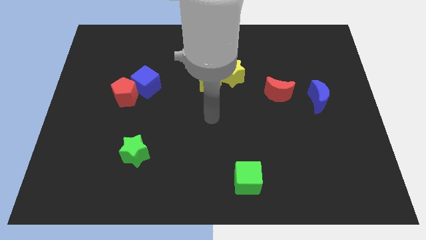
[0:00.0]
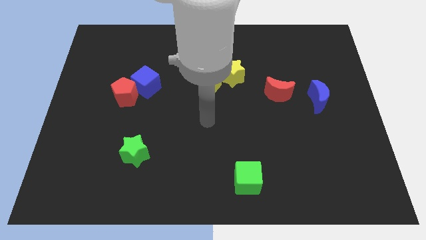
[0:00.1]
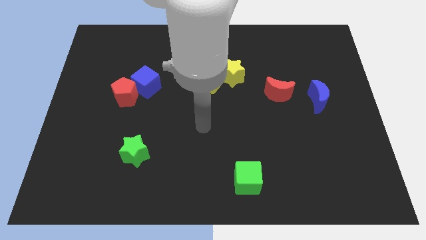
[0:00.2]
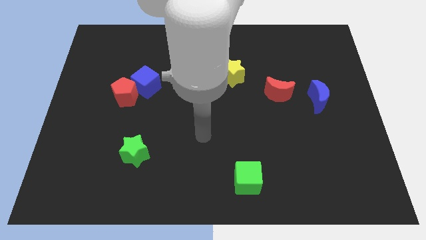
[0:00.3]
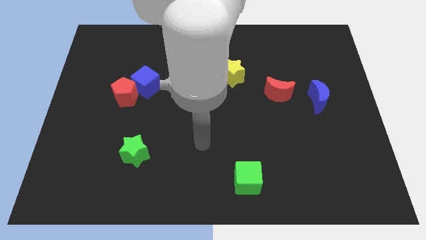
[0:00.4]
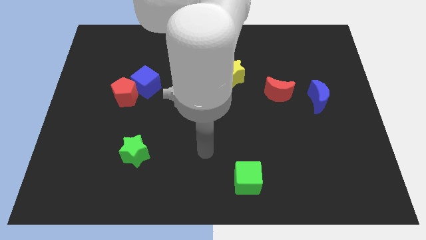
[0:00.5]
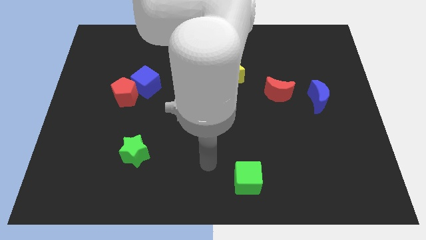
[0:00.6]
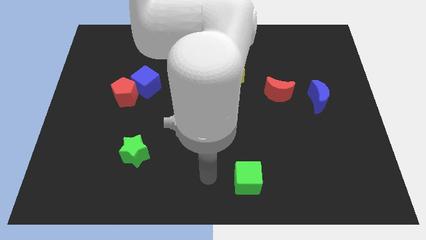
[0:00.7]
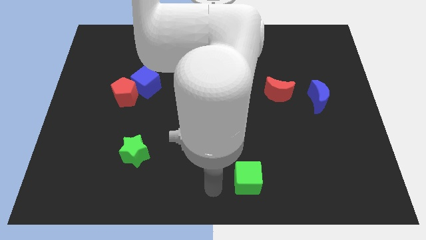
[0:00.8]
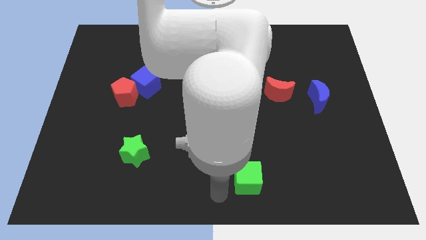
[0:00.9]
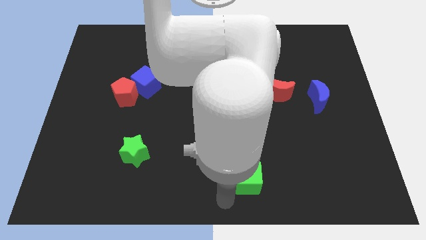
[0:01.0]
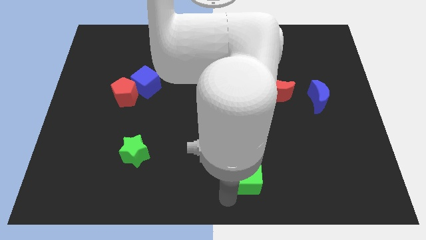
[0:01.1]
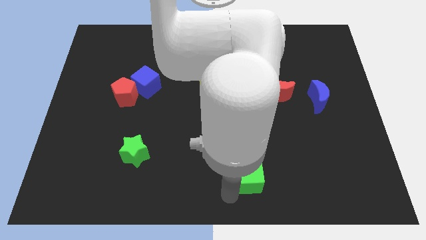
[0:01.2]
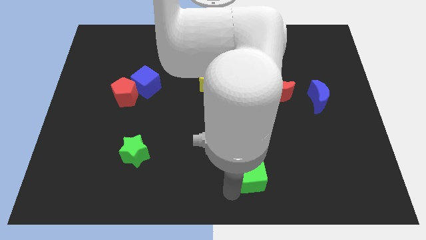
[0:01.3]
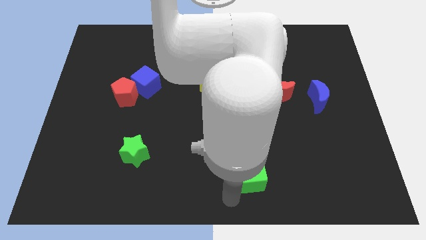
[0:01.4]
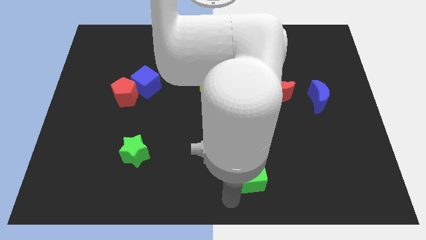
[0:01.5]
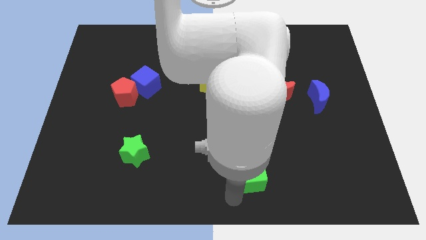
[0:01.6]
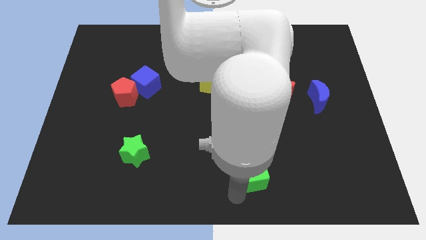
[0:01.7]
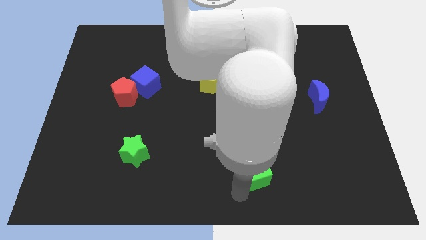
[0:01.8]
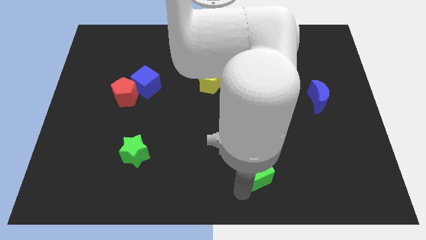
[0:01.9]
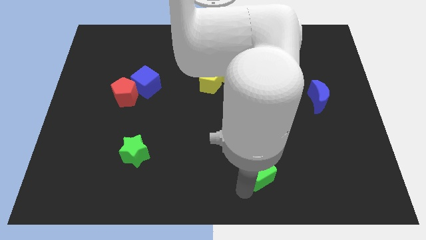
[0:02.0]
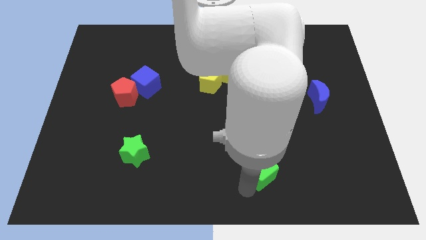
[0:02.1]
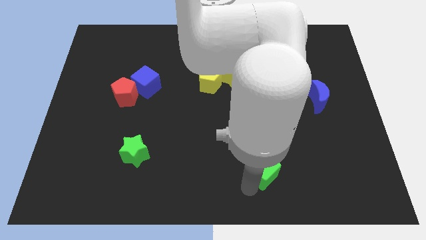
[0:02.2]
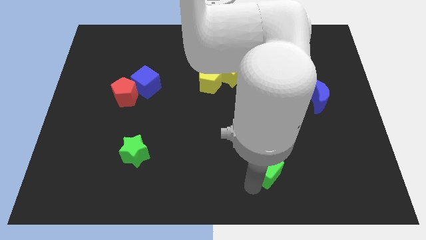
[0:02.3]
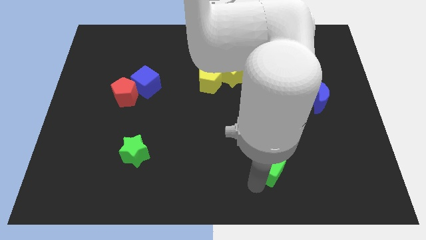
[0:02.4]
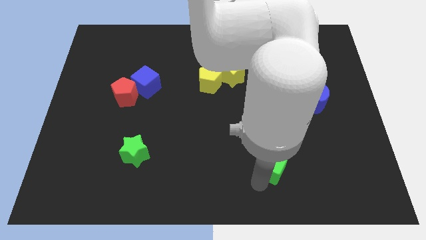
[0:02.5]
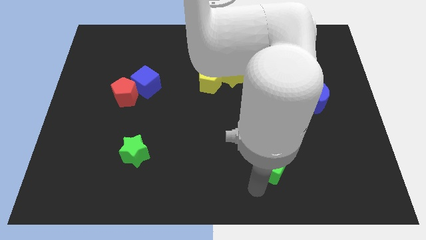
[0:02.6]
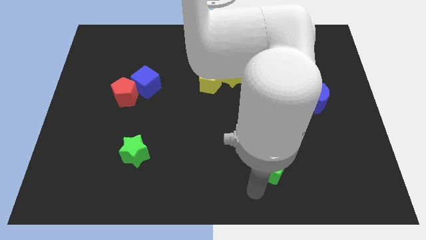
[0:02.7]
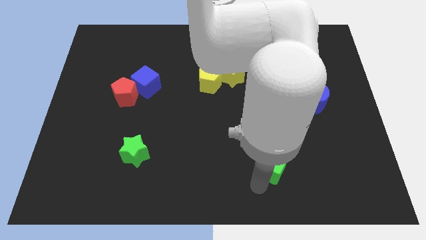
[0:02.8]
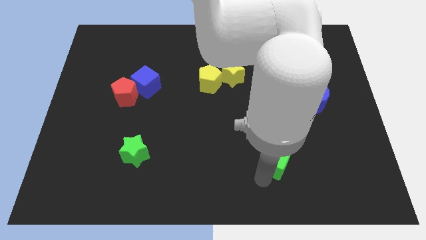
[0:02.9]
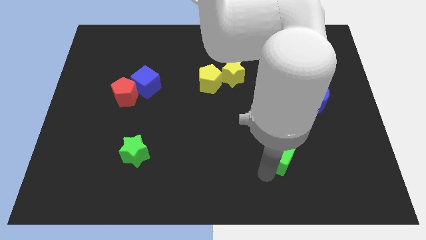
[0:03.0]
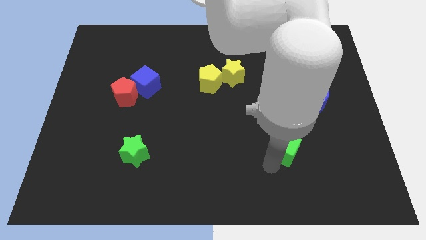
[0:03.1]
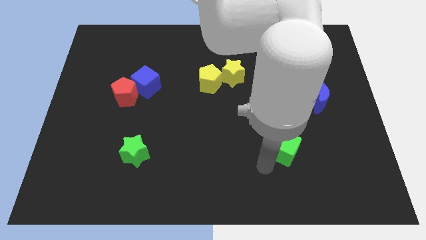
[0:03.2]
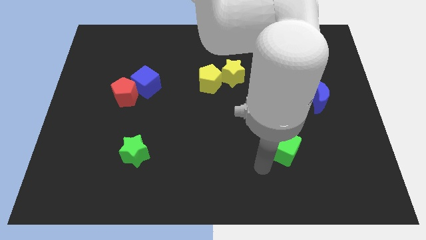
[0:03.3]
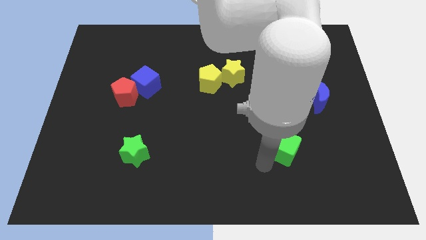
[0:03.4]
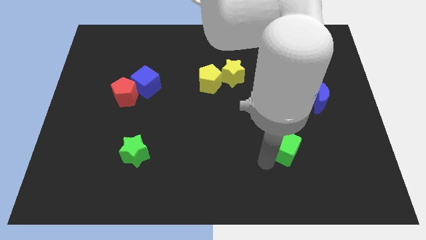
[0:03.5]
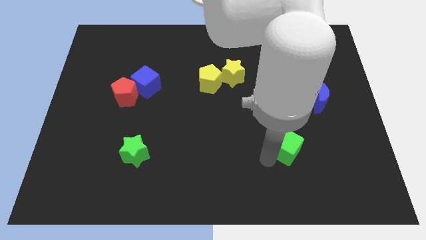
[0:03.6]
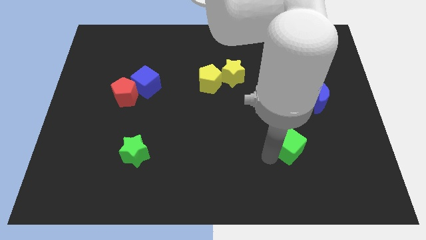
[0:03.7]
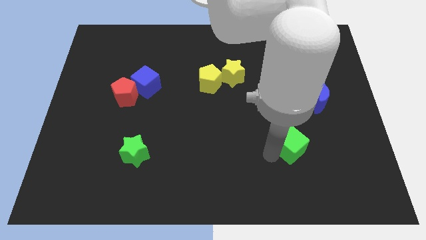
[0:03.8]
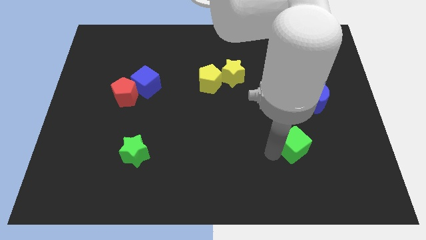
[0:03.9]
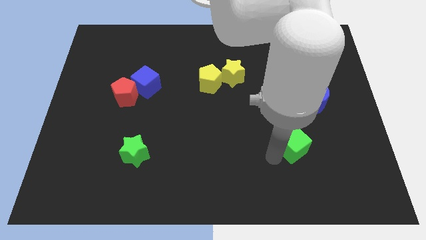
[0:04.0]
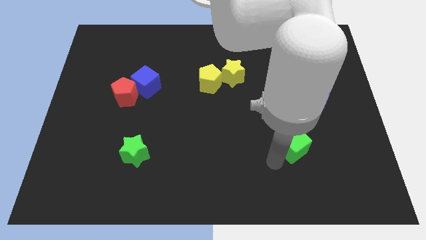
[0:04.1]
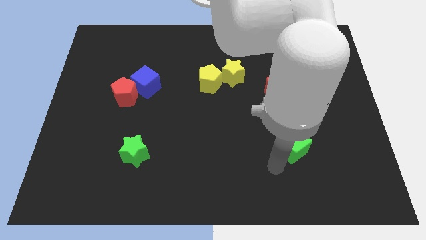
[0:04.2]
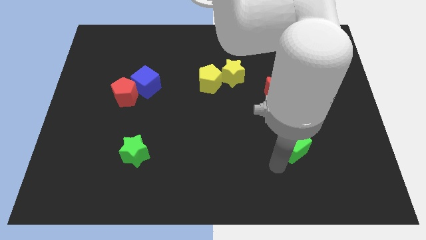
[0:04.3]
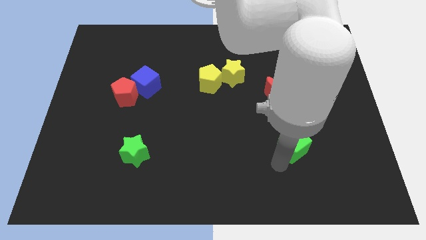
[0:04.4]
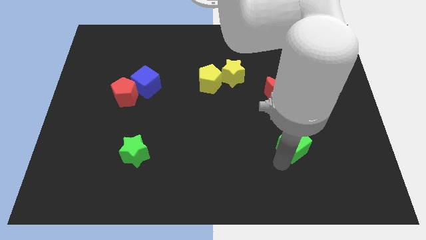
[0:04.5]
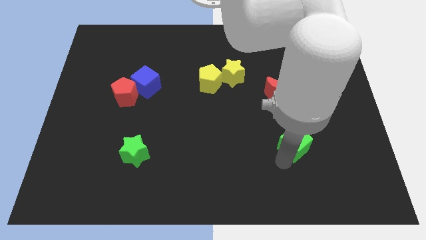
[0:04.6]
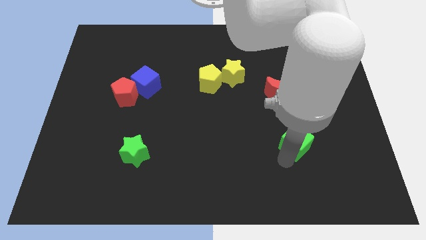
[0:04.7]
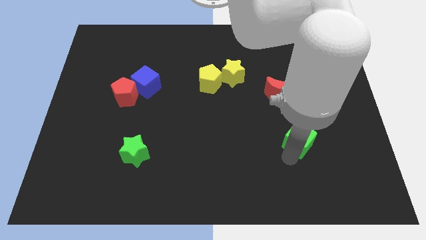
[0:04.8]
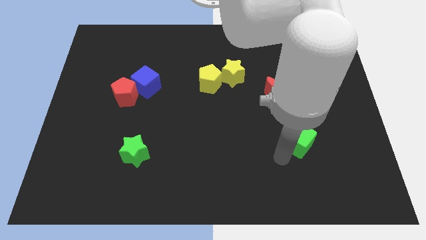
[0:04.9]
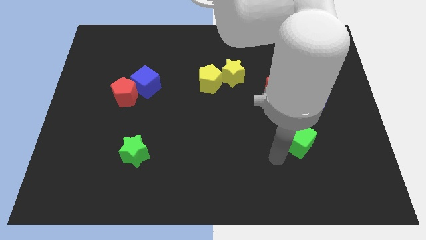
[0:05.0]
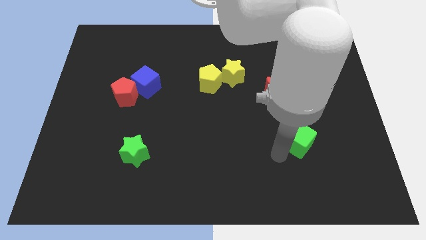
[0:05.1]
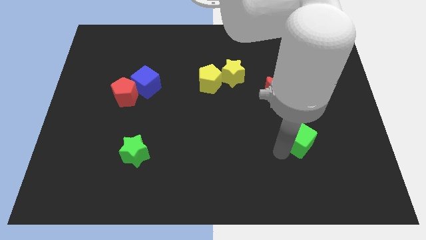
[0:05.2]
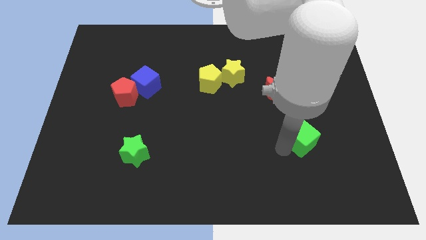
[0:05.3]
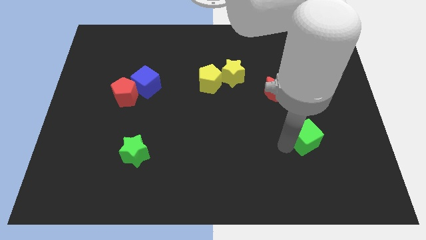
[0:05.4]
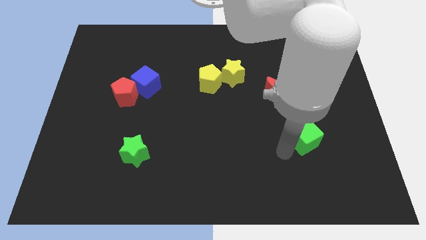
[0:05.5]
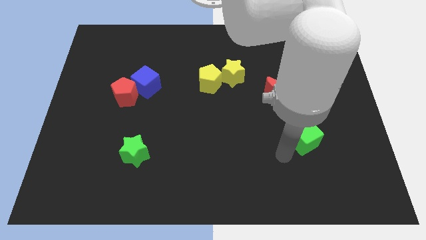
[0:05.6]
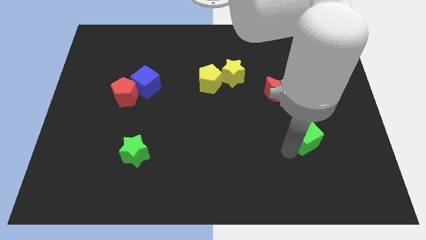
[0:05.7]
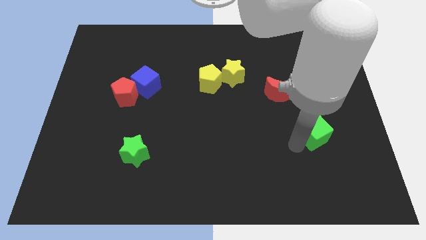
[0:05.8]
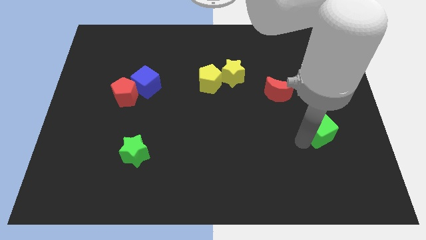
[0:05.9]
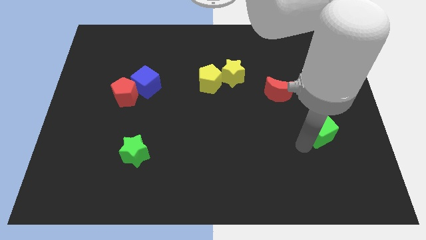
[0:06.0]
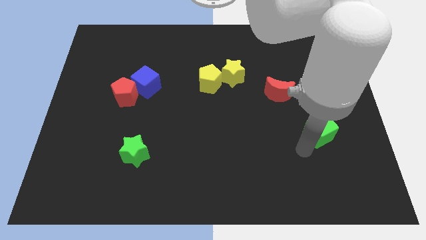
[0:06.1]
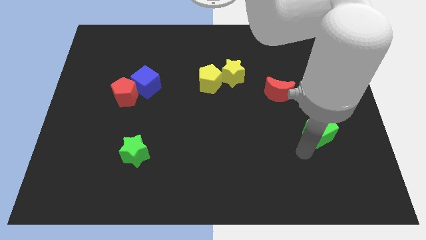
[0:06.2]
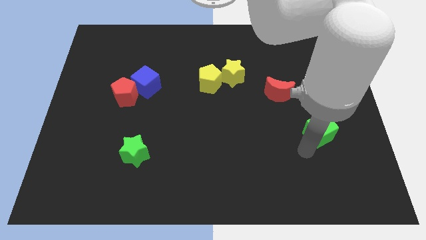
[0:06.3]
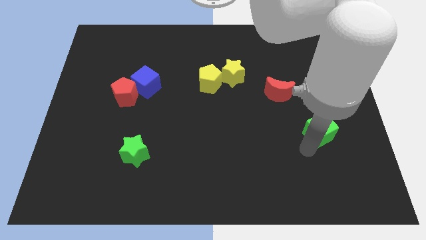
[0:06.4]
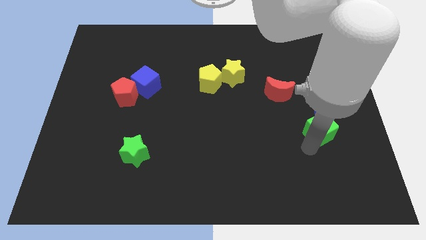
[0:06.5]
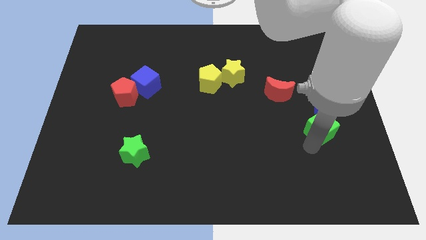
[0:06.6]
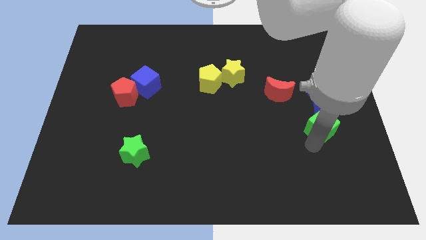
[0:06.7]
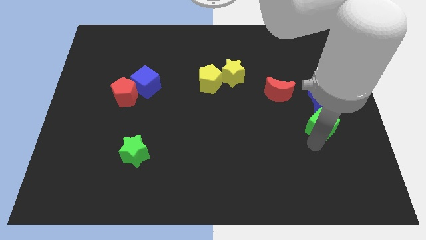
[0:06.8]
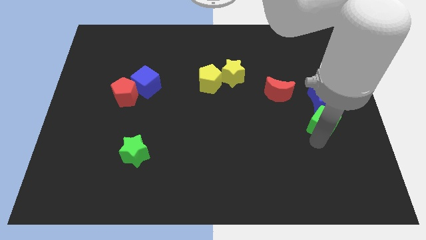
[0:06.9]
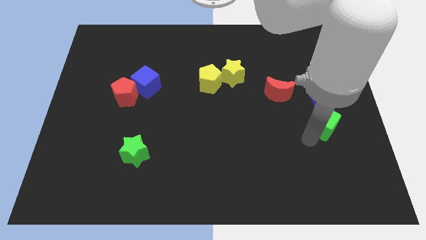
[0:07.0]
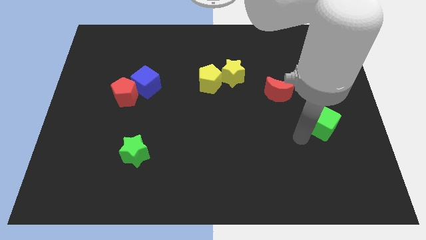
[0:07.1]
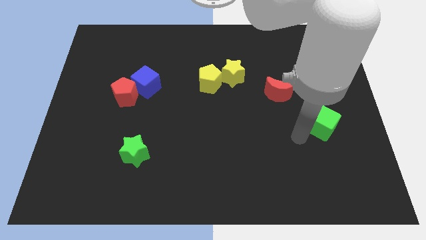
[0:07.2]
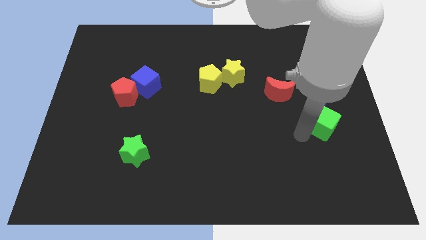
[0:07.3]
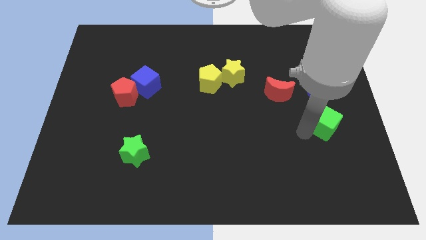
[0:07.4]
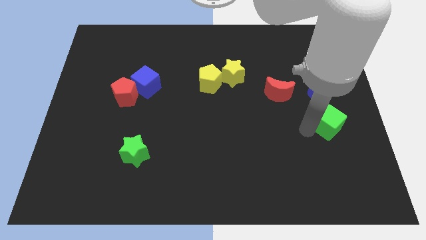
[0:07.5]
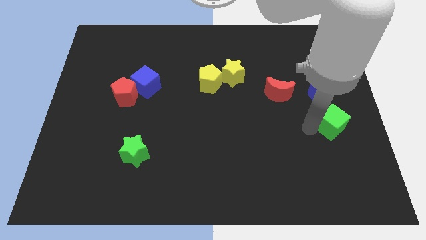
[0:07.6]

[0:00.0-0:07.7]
move the green cube to the center right
